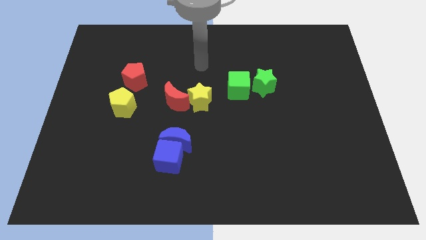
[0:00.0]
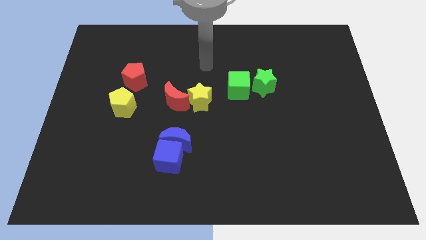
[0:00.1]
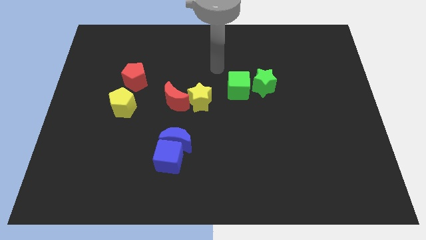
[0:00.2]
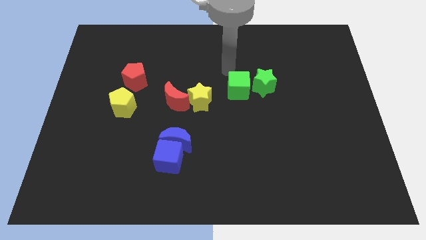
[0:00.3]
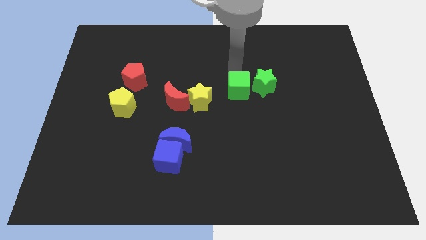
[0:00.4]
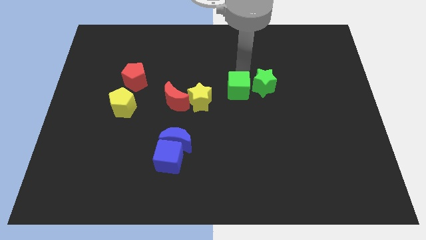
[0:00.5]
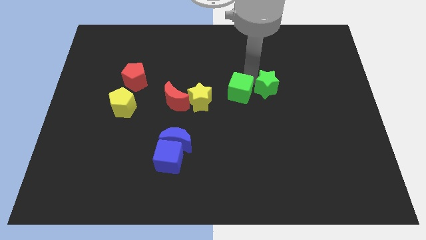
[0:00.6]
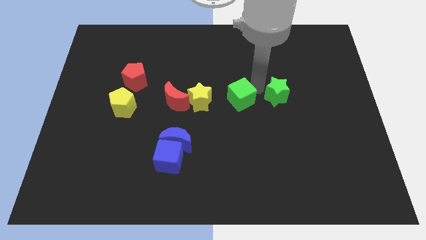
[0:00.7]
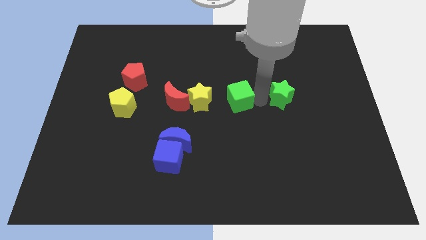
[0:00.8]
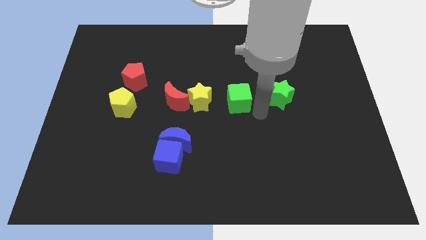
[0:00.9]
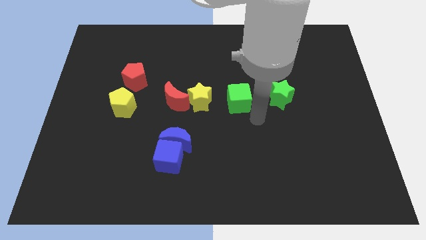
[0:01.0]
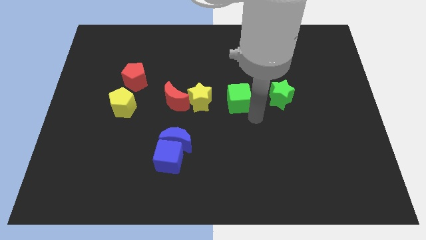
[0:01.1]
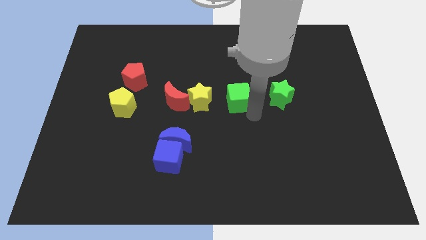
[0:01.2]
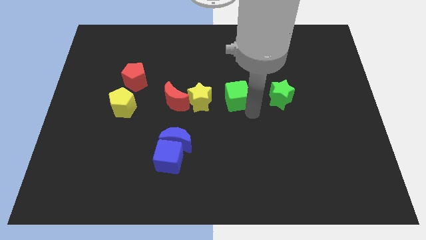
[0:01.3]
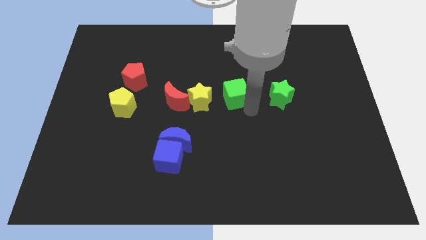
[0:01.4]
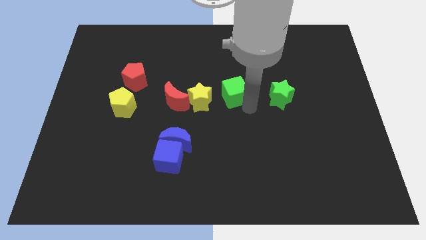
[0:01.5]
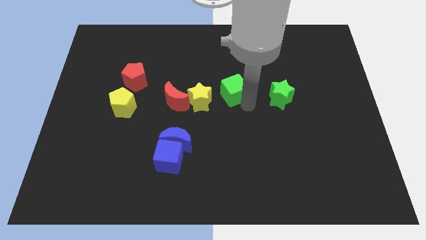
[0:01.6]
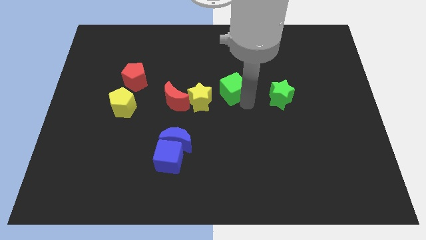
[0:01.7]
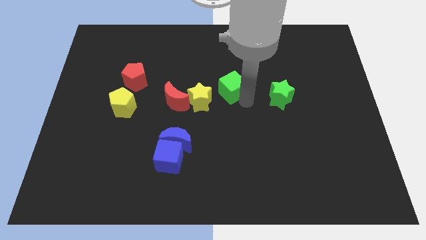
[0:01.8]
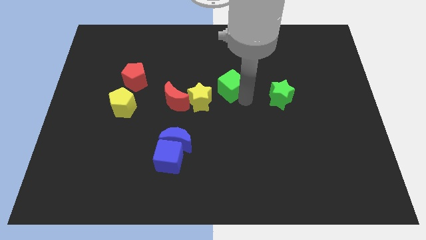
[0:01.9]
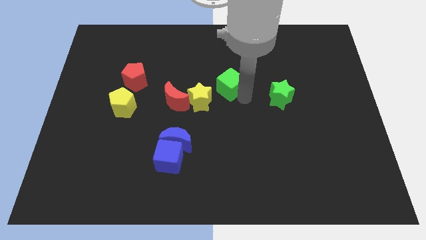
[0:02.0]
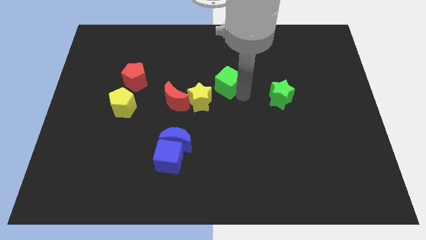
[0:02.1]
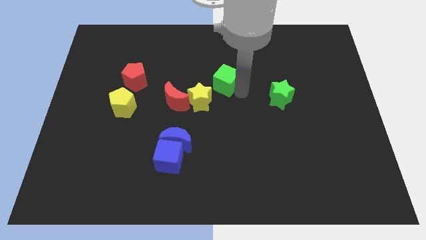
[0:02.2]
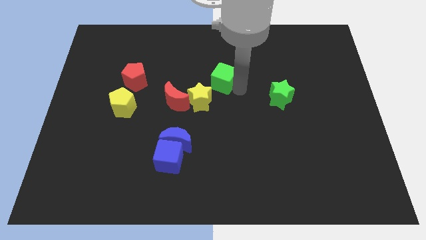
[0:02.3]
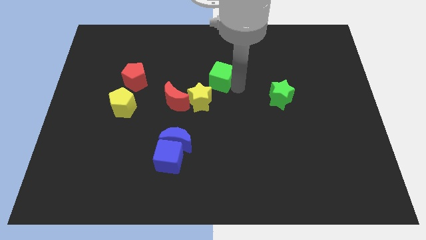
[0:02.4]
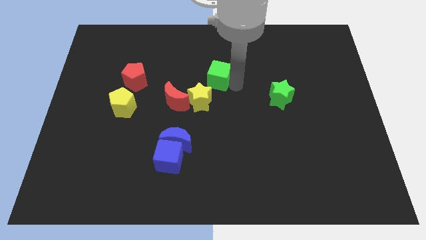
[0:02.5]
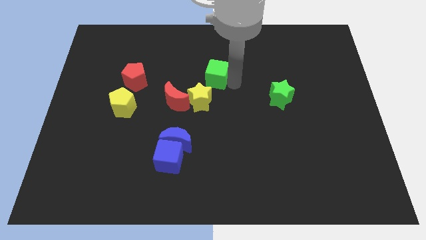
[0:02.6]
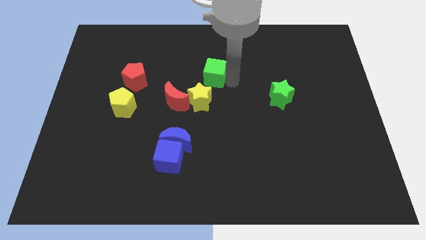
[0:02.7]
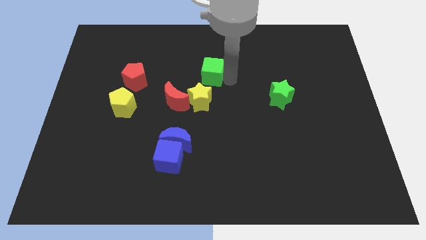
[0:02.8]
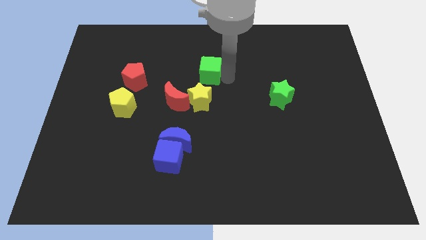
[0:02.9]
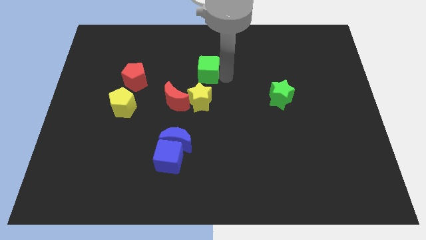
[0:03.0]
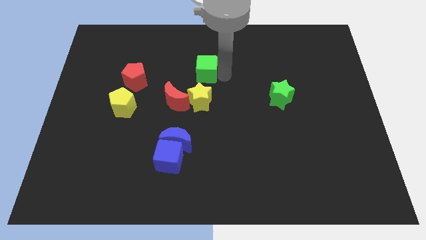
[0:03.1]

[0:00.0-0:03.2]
move the green cube a little bit to the left

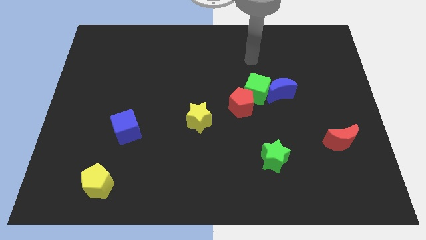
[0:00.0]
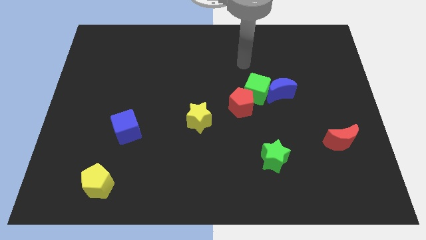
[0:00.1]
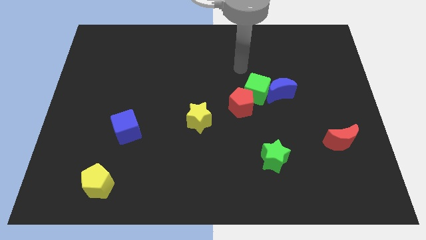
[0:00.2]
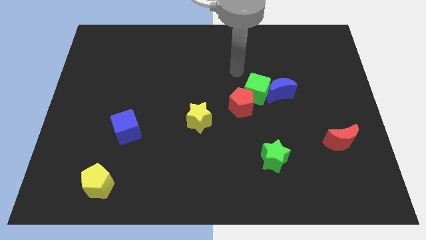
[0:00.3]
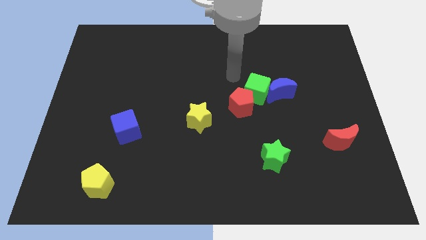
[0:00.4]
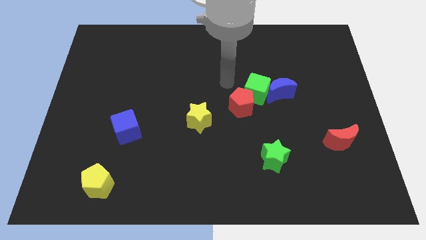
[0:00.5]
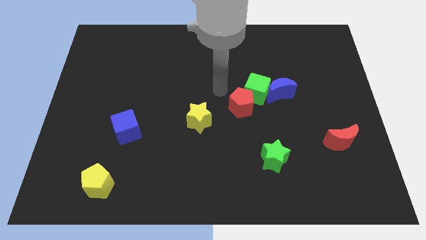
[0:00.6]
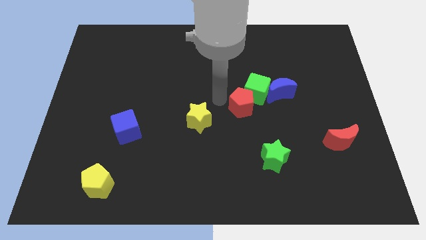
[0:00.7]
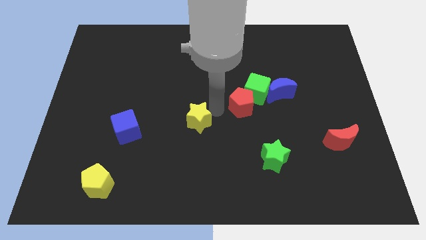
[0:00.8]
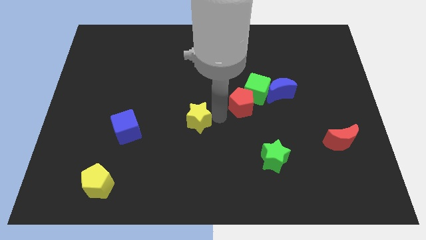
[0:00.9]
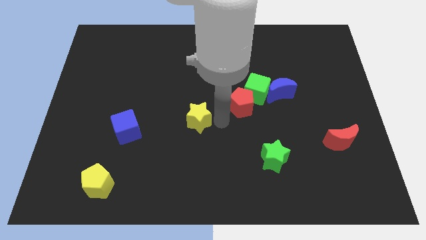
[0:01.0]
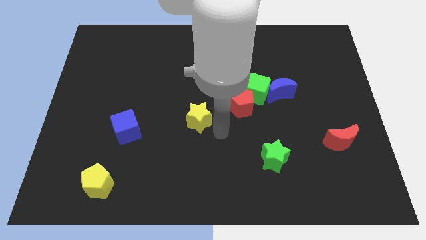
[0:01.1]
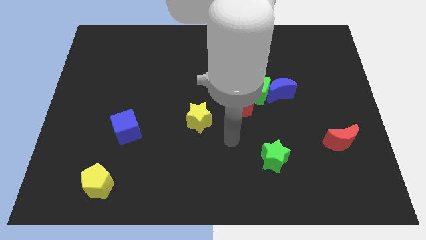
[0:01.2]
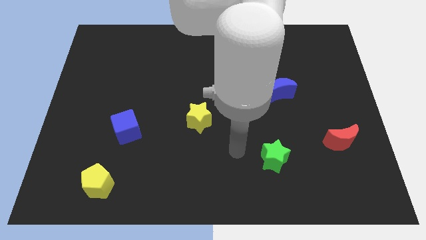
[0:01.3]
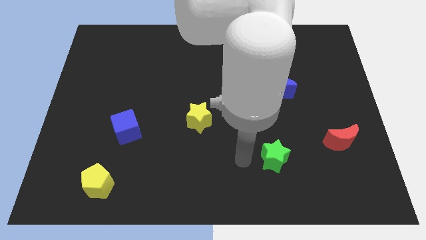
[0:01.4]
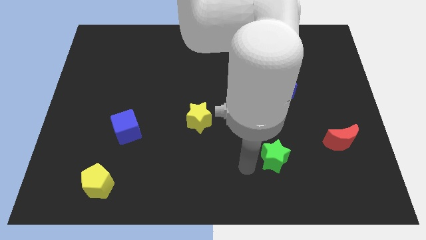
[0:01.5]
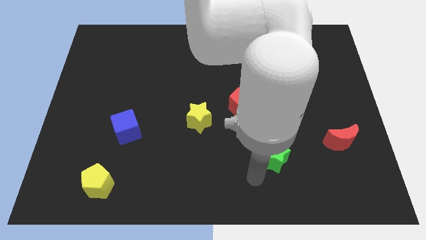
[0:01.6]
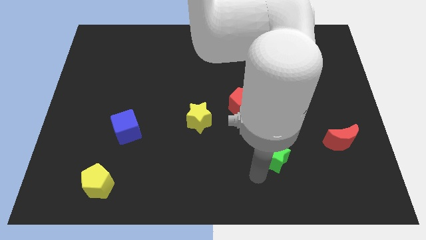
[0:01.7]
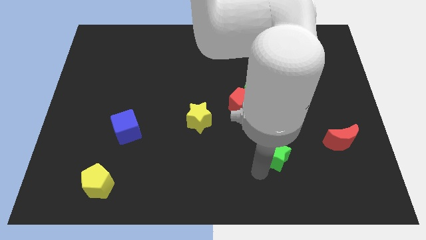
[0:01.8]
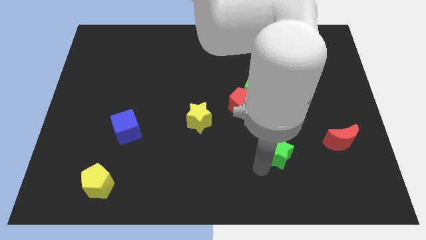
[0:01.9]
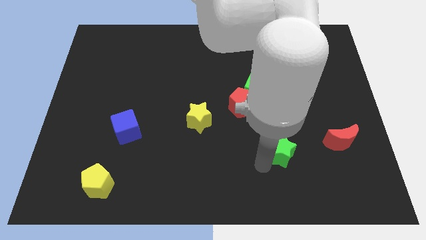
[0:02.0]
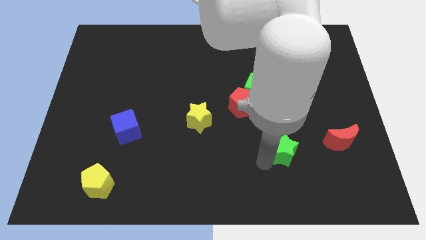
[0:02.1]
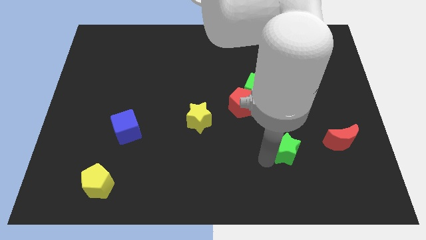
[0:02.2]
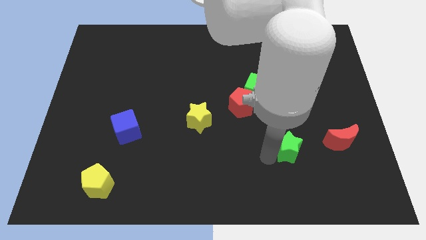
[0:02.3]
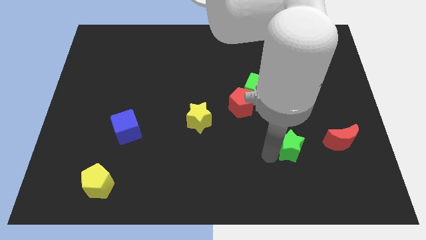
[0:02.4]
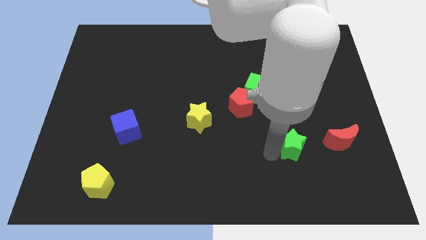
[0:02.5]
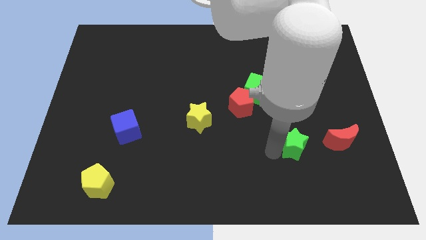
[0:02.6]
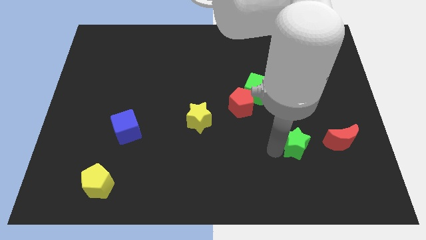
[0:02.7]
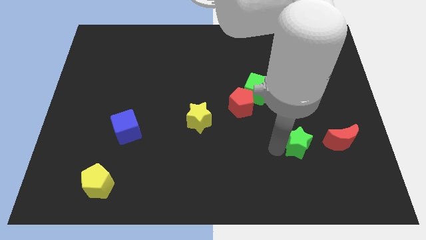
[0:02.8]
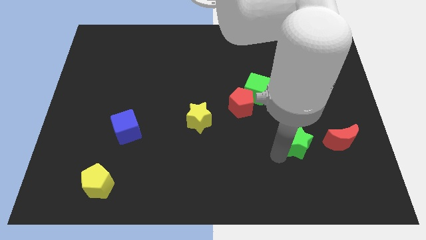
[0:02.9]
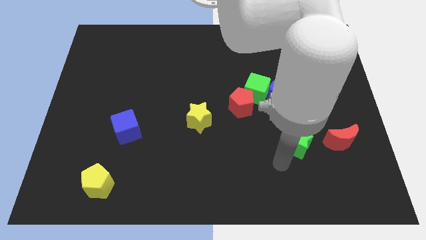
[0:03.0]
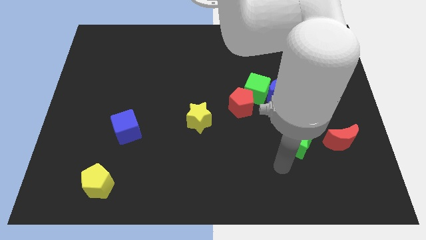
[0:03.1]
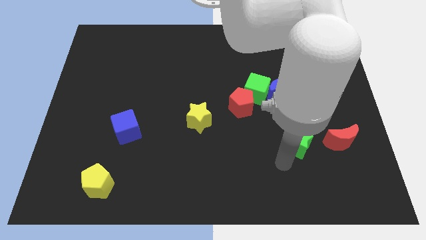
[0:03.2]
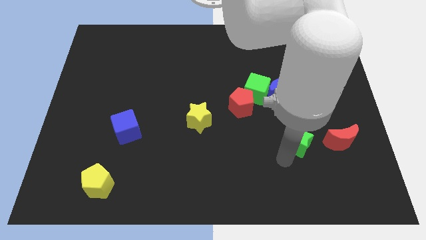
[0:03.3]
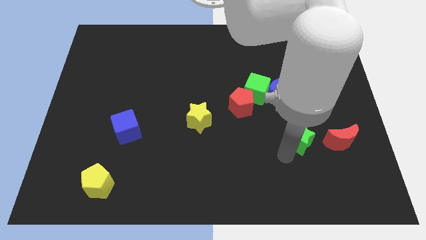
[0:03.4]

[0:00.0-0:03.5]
move the green star a little diagonally up and to the right

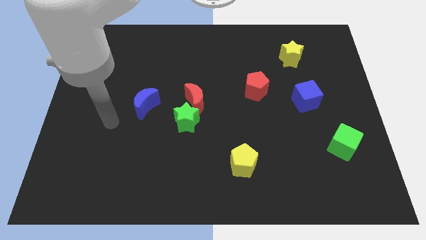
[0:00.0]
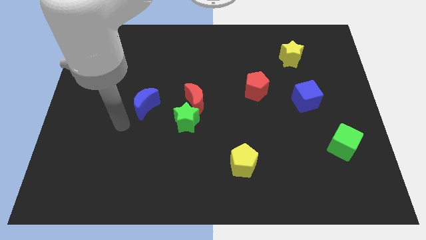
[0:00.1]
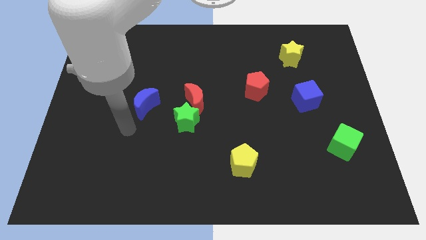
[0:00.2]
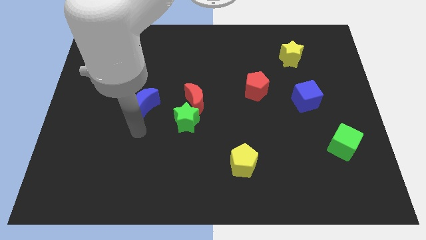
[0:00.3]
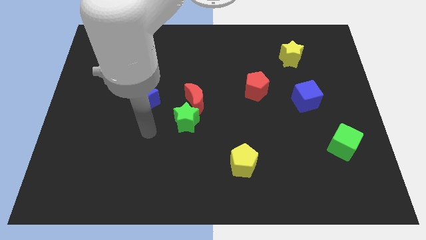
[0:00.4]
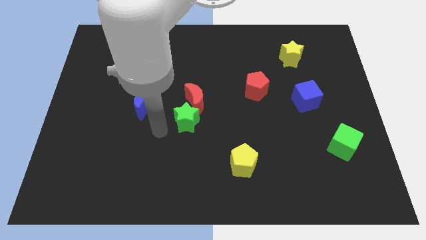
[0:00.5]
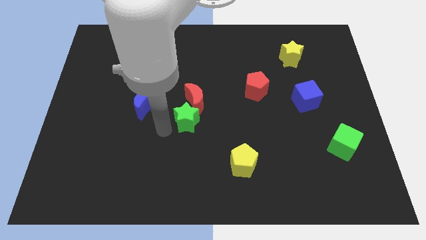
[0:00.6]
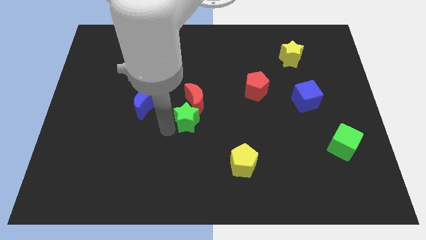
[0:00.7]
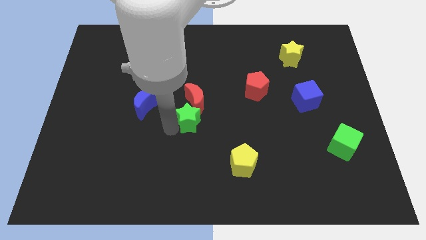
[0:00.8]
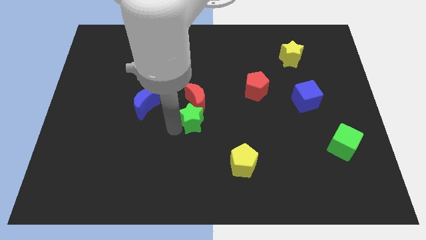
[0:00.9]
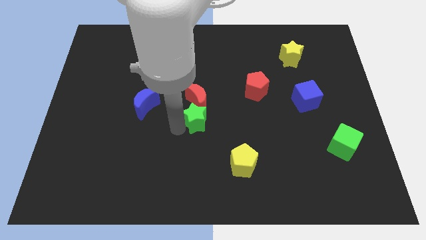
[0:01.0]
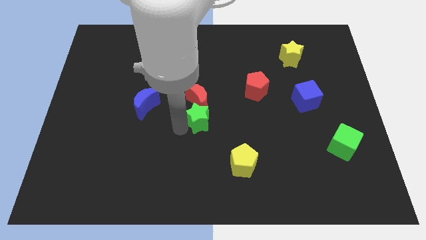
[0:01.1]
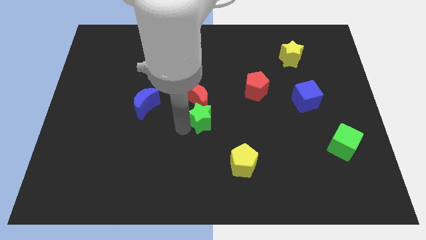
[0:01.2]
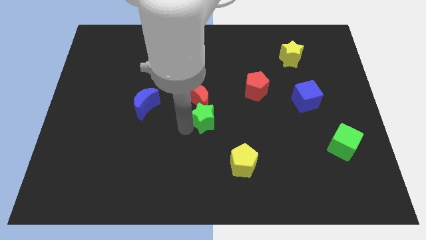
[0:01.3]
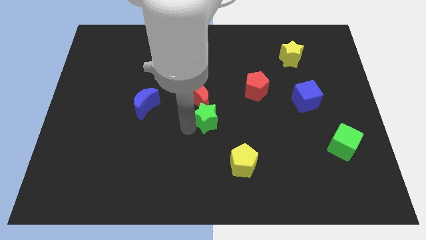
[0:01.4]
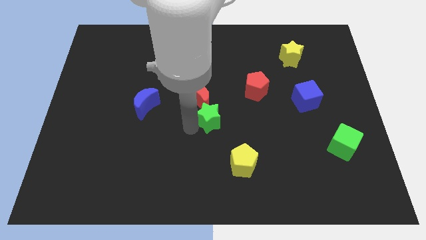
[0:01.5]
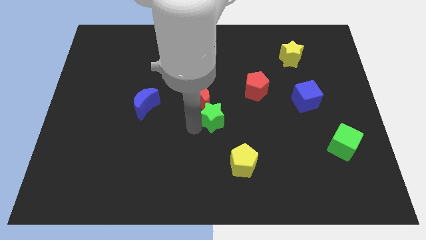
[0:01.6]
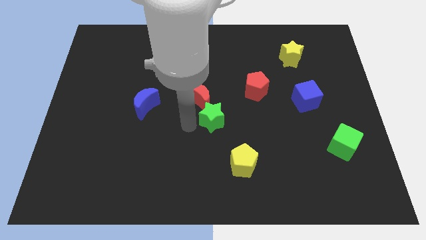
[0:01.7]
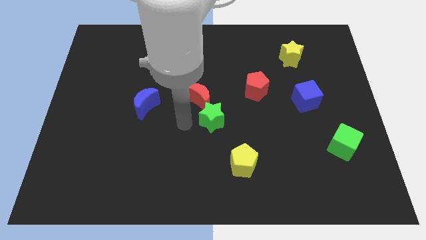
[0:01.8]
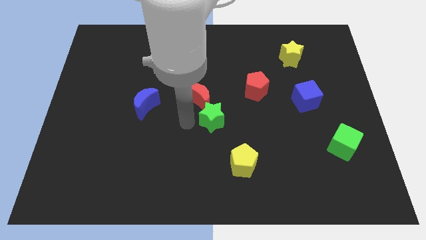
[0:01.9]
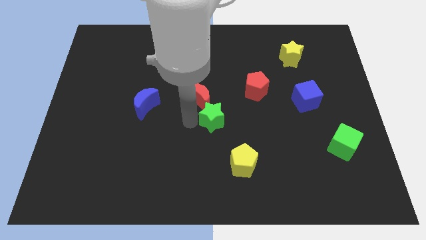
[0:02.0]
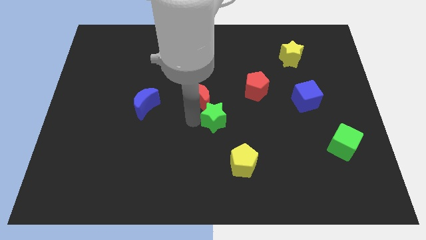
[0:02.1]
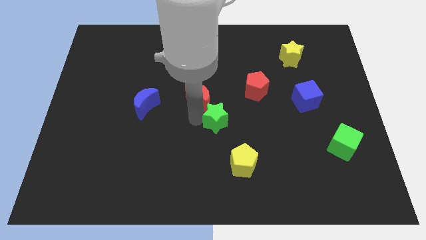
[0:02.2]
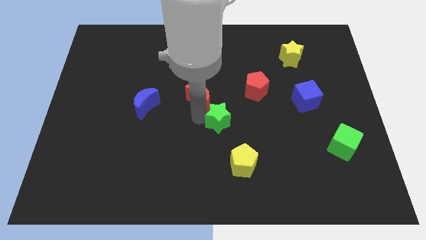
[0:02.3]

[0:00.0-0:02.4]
slide the green star to the right a bit
